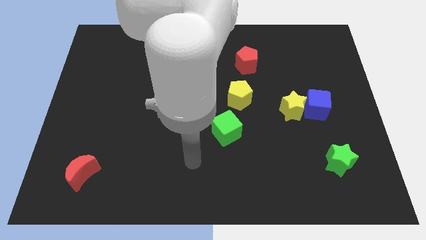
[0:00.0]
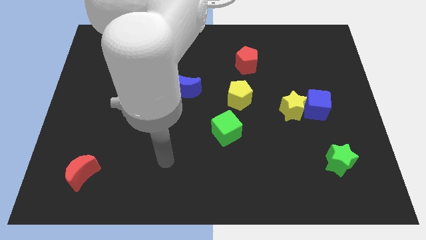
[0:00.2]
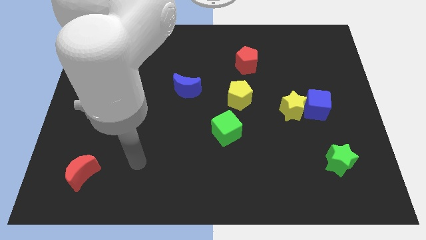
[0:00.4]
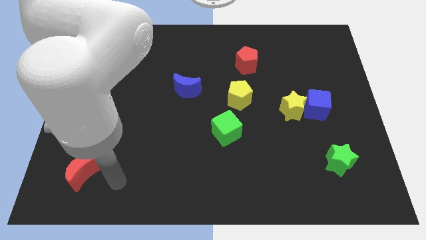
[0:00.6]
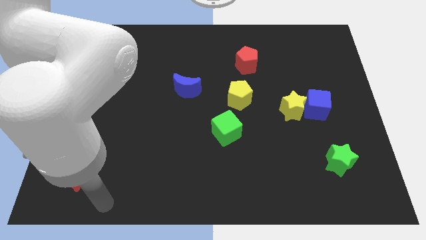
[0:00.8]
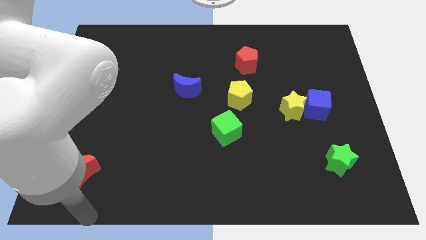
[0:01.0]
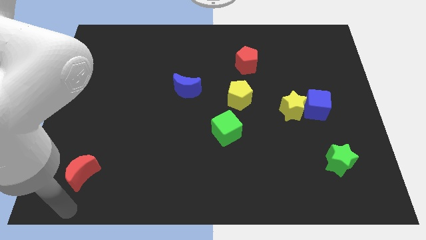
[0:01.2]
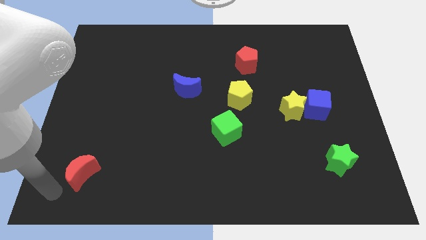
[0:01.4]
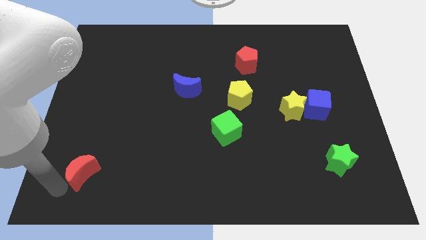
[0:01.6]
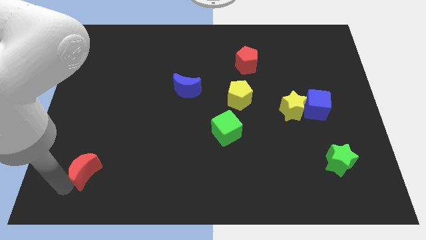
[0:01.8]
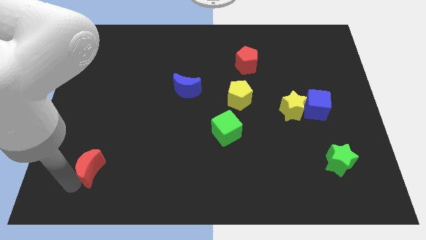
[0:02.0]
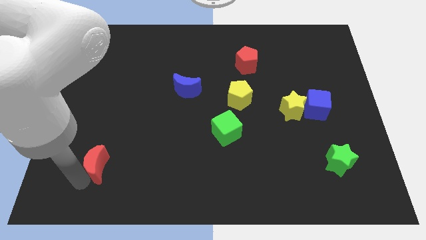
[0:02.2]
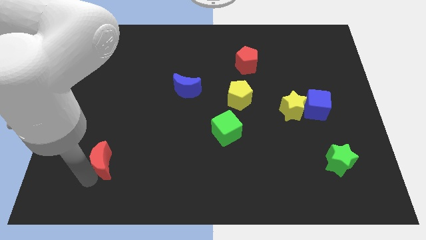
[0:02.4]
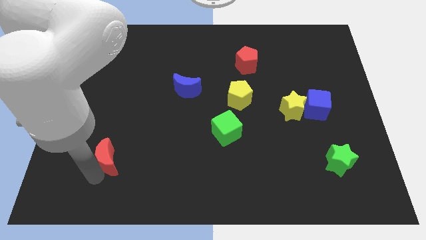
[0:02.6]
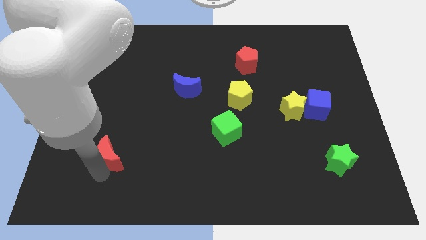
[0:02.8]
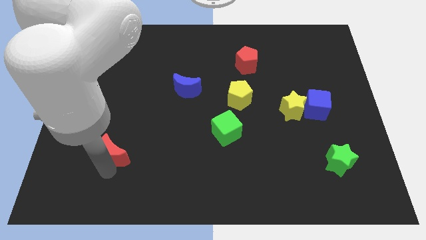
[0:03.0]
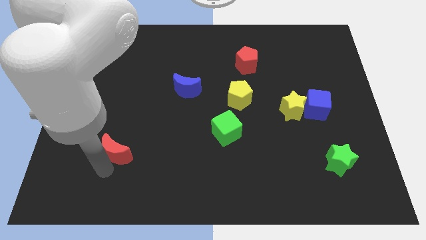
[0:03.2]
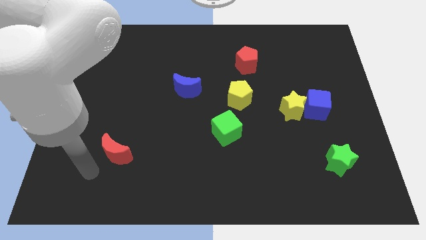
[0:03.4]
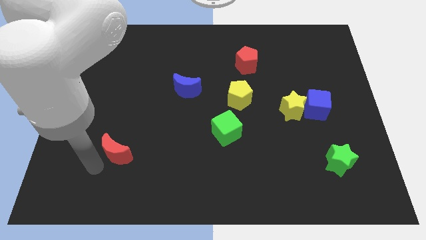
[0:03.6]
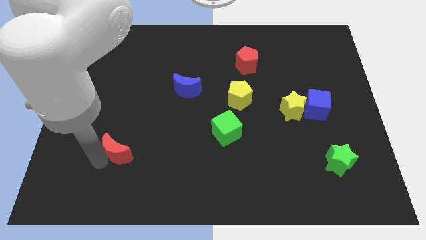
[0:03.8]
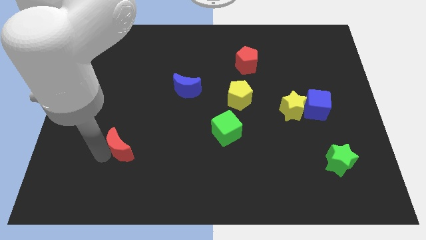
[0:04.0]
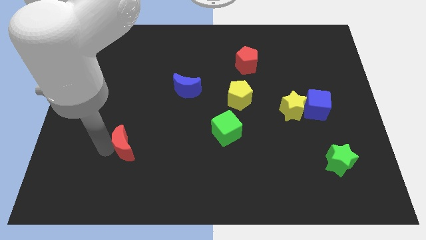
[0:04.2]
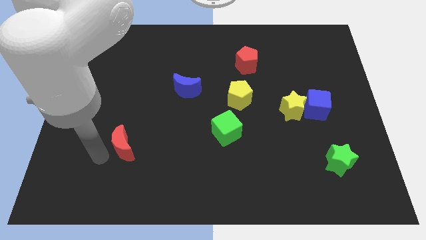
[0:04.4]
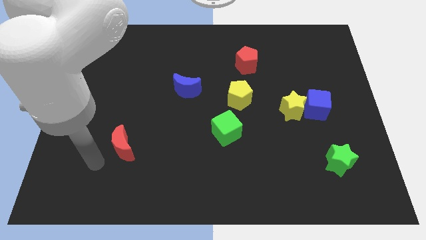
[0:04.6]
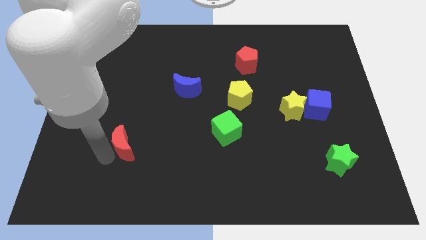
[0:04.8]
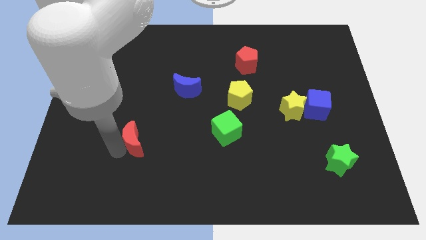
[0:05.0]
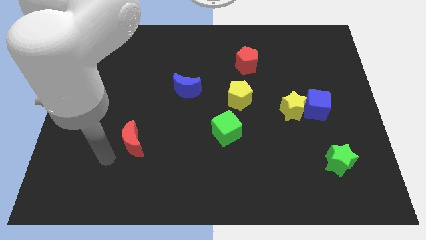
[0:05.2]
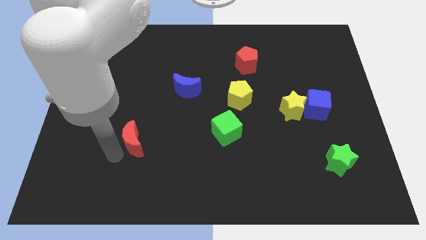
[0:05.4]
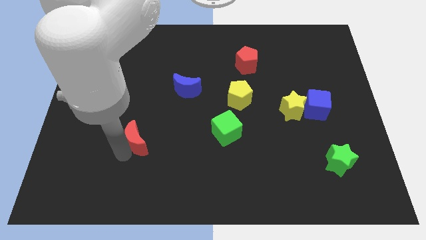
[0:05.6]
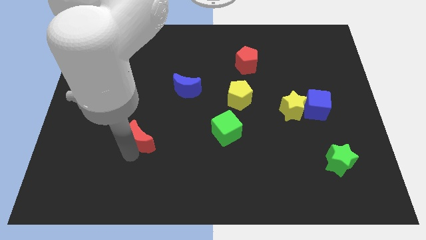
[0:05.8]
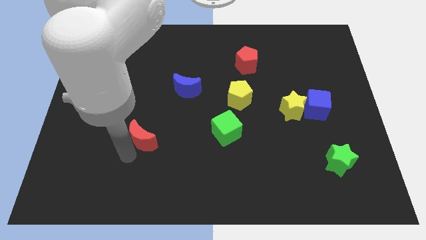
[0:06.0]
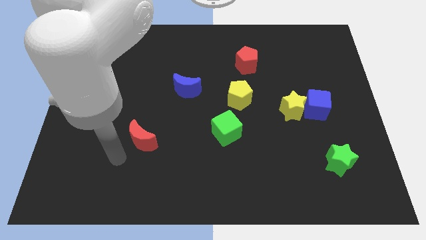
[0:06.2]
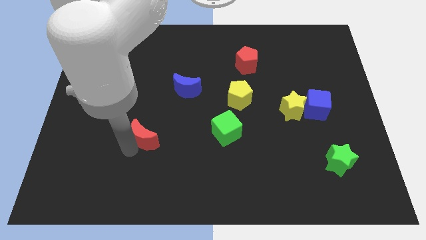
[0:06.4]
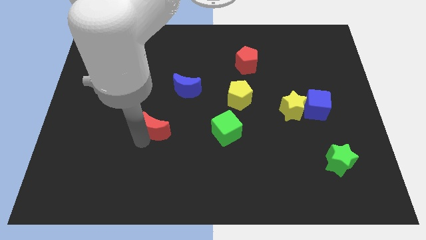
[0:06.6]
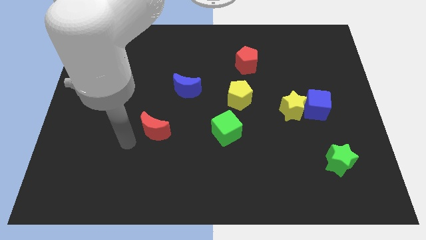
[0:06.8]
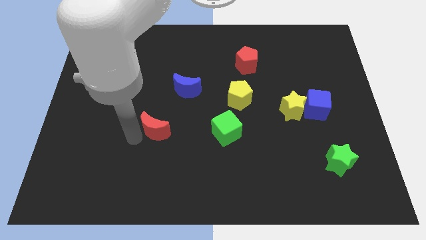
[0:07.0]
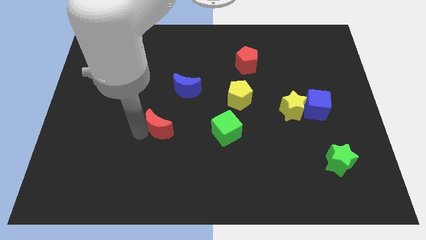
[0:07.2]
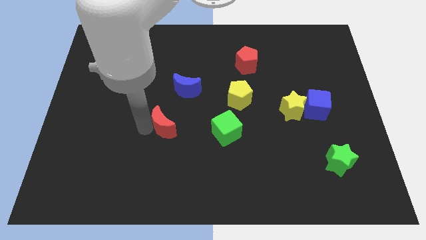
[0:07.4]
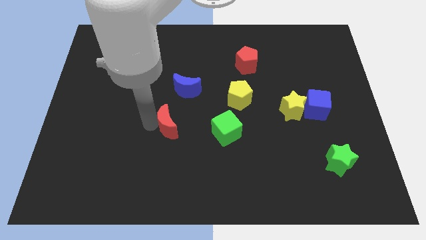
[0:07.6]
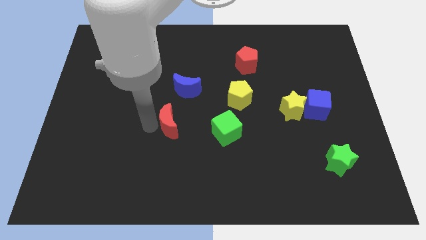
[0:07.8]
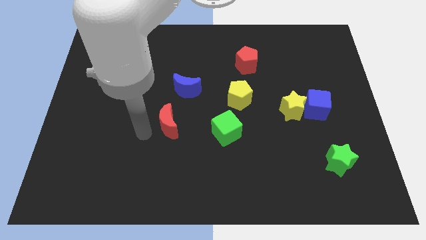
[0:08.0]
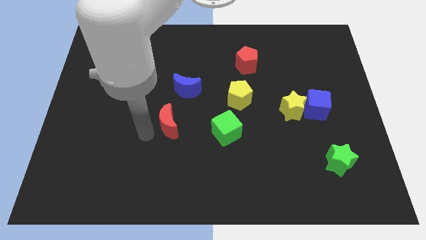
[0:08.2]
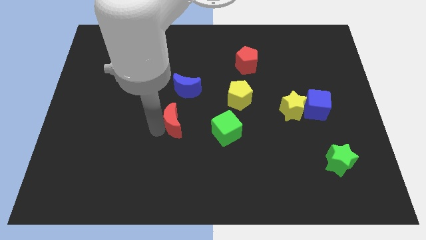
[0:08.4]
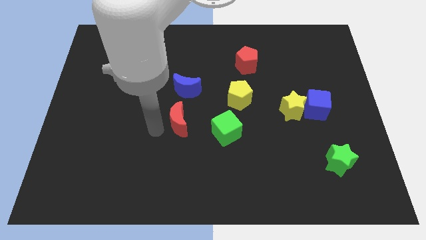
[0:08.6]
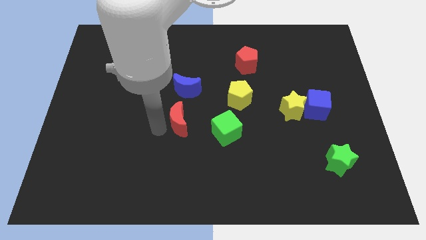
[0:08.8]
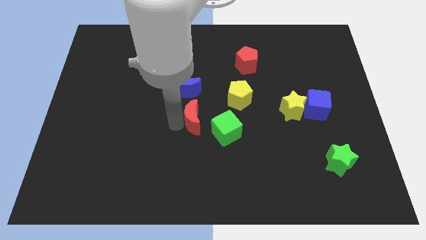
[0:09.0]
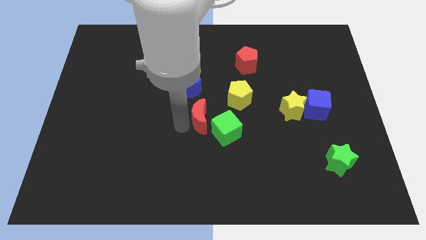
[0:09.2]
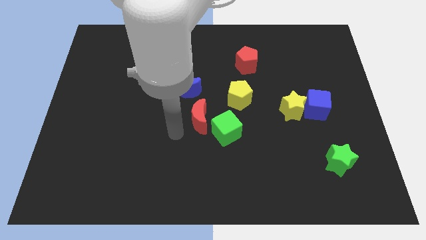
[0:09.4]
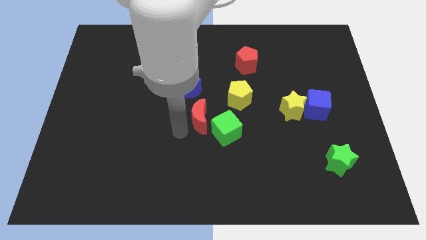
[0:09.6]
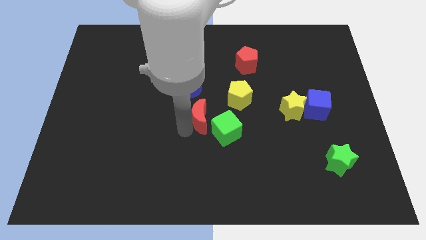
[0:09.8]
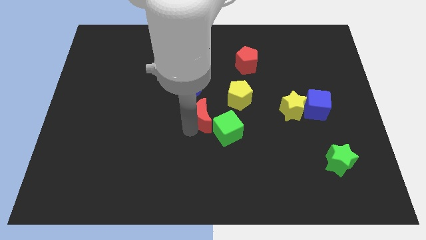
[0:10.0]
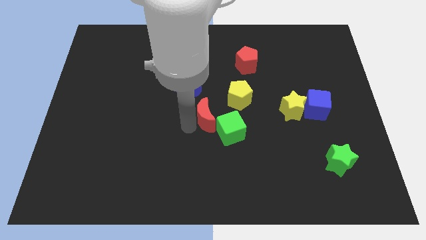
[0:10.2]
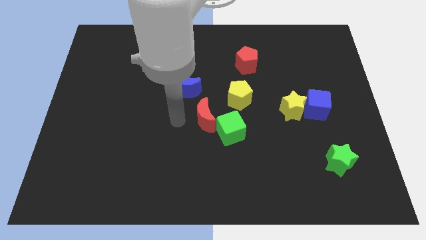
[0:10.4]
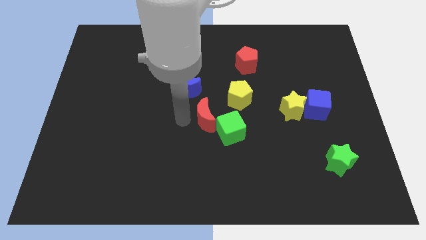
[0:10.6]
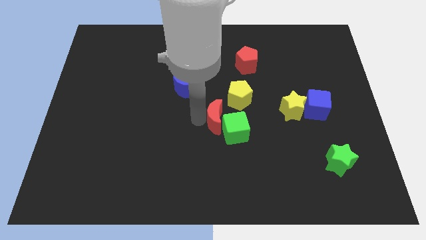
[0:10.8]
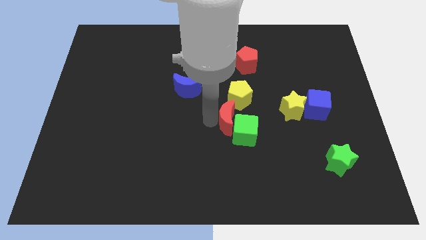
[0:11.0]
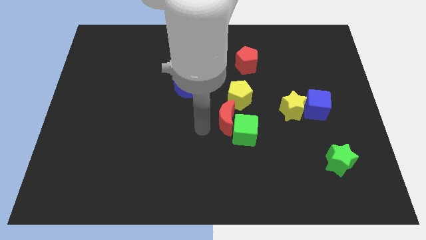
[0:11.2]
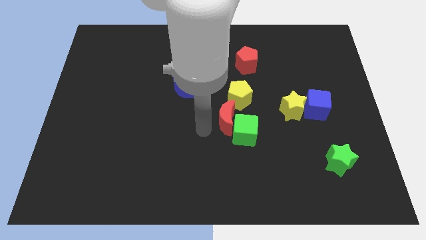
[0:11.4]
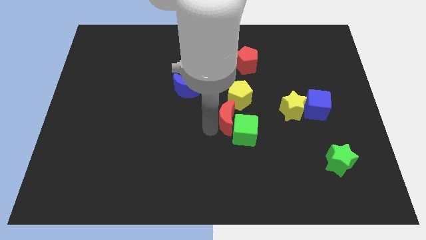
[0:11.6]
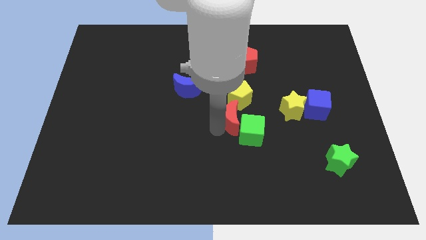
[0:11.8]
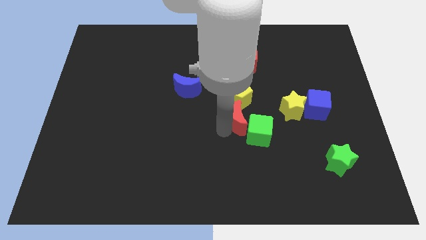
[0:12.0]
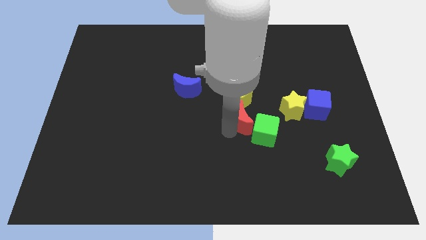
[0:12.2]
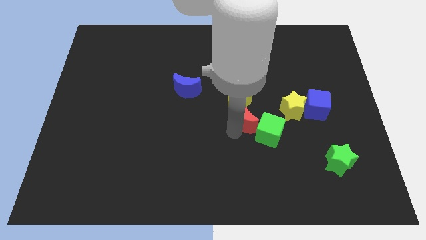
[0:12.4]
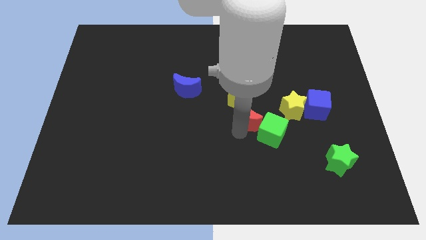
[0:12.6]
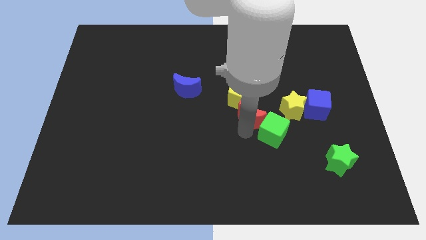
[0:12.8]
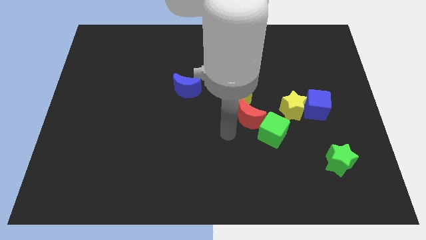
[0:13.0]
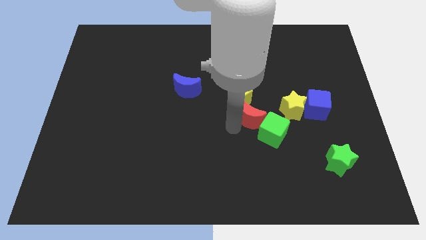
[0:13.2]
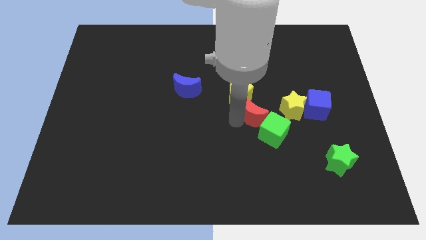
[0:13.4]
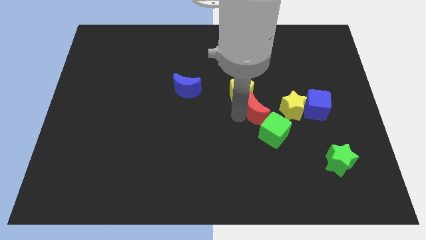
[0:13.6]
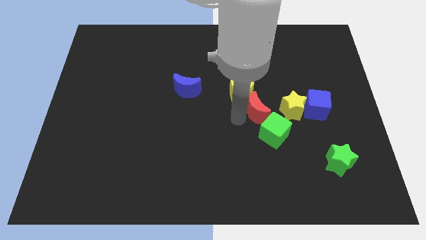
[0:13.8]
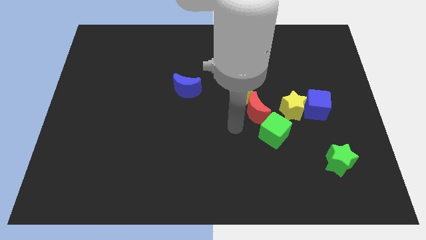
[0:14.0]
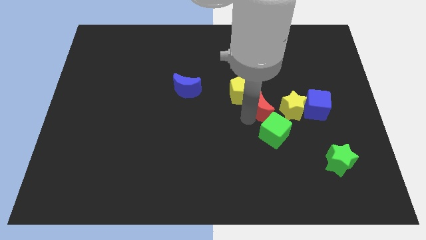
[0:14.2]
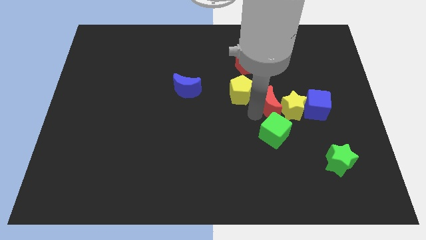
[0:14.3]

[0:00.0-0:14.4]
move the red moon right of the yellow pentagon
